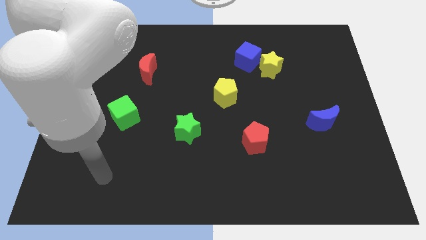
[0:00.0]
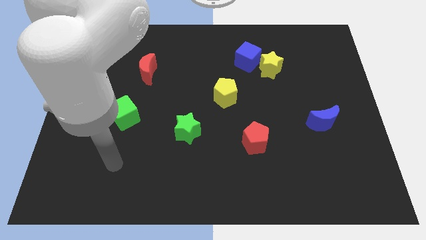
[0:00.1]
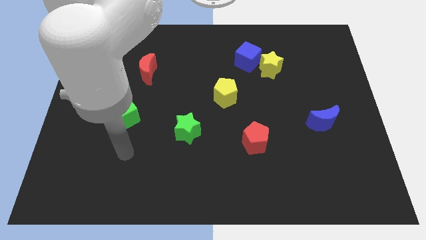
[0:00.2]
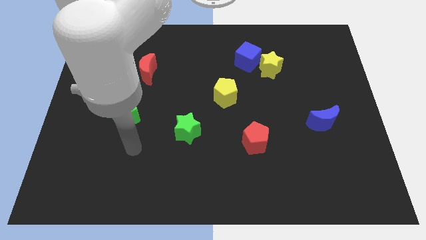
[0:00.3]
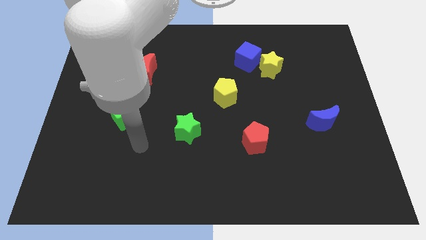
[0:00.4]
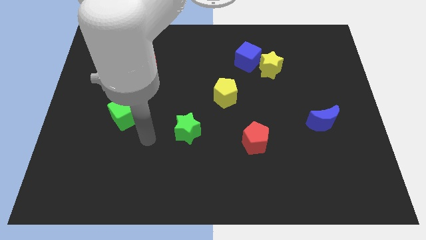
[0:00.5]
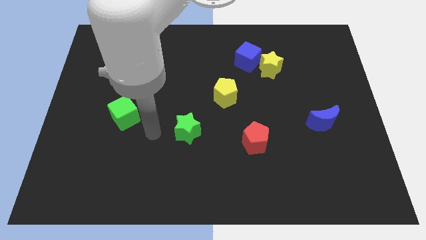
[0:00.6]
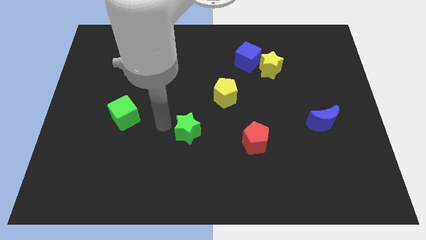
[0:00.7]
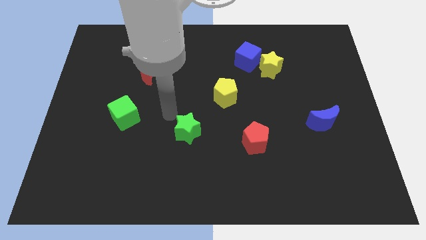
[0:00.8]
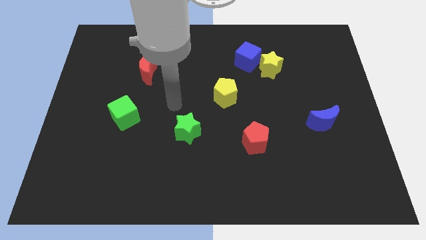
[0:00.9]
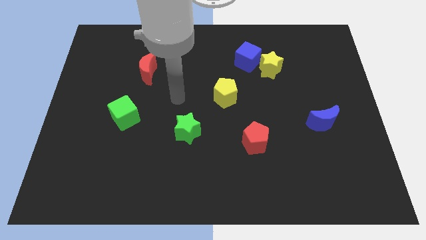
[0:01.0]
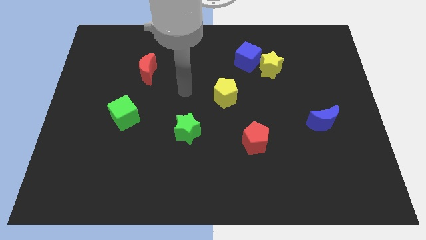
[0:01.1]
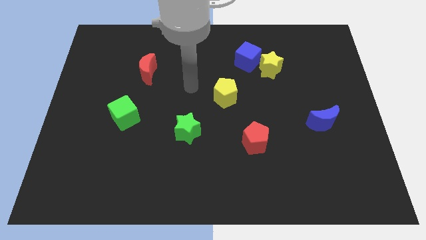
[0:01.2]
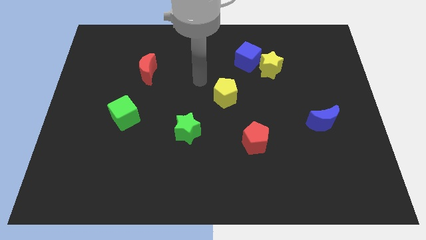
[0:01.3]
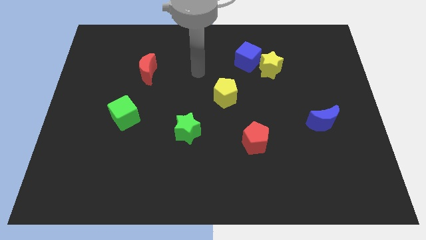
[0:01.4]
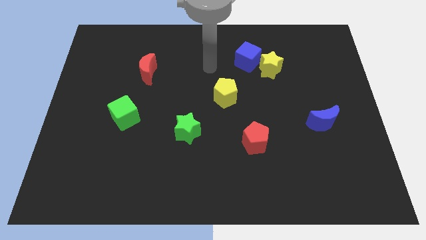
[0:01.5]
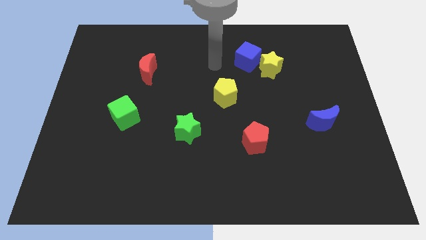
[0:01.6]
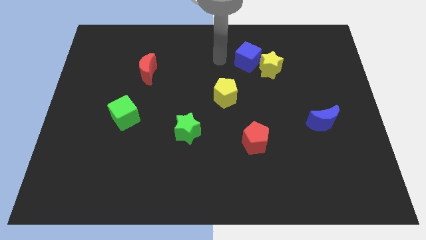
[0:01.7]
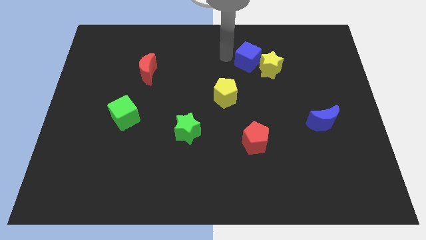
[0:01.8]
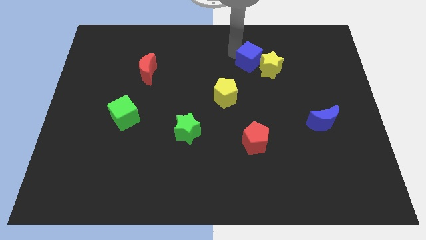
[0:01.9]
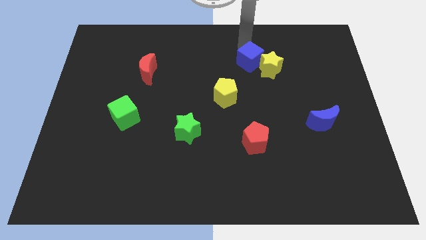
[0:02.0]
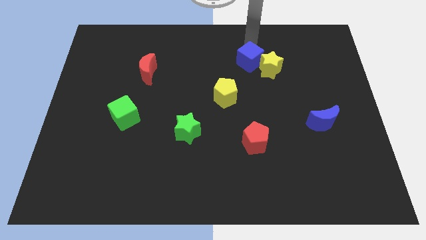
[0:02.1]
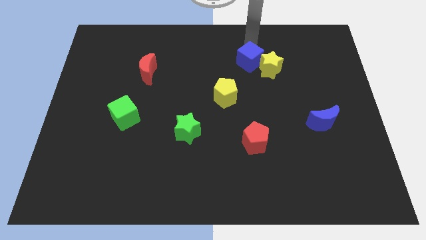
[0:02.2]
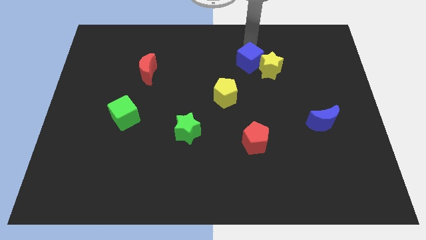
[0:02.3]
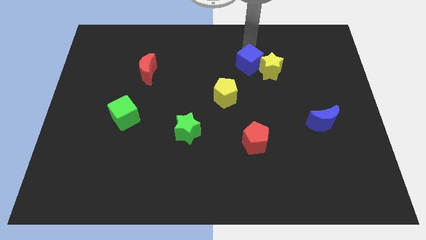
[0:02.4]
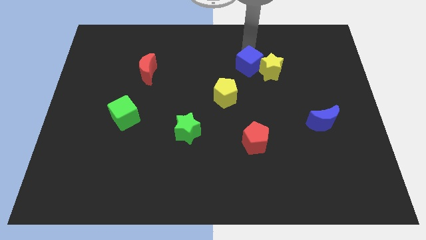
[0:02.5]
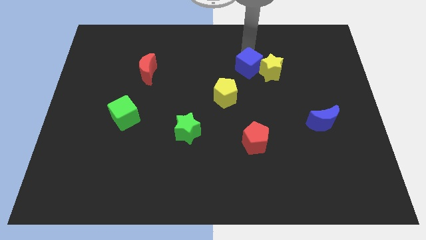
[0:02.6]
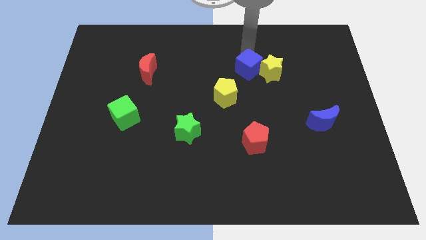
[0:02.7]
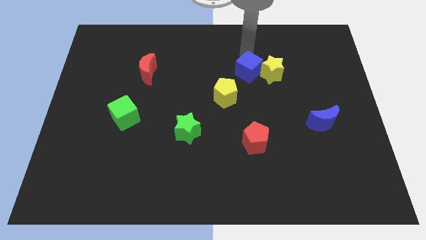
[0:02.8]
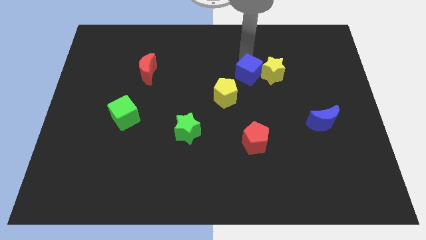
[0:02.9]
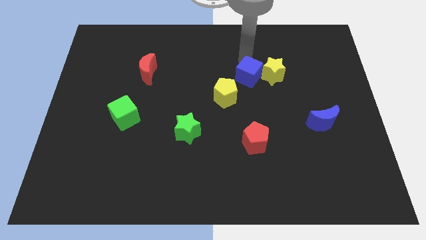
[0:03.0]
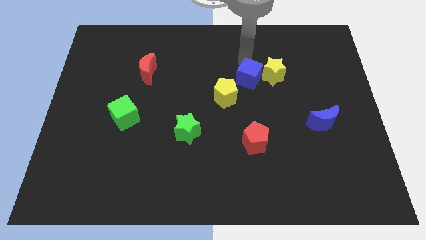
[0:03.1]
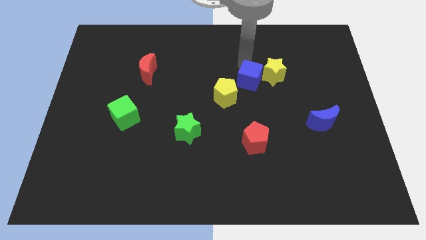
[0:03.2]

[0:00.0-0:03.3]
slightly slide the blue cube downwards

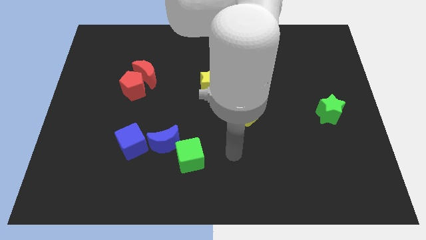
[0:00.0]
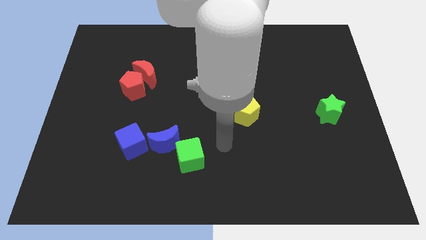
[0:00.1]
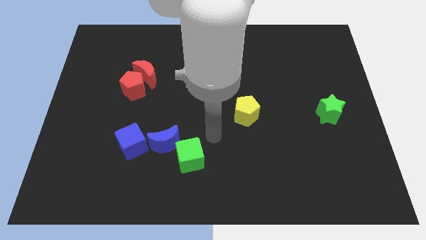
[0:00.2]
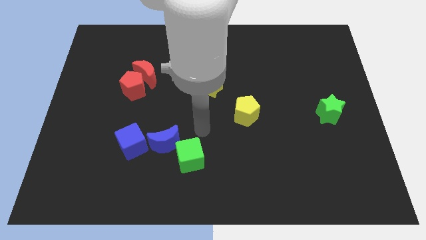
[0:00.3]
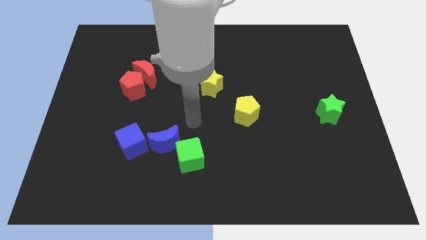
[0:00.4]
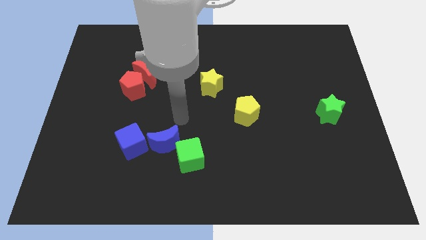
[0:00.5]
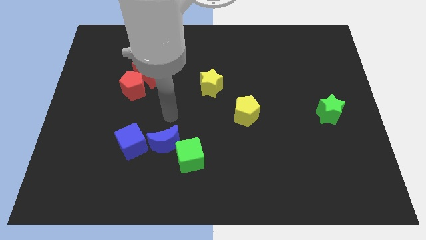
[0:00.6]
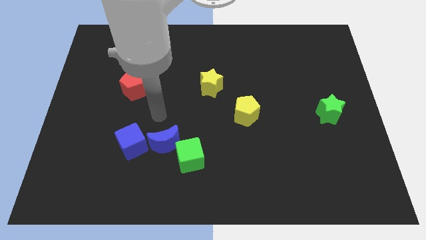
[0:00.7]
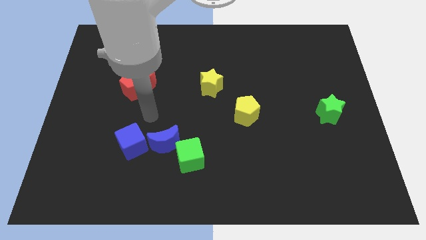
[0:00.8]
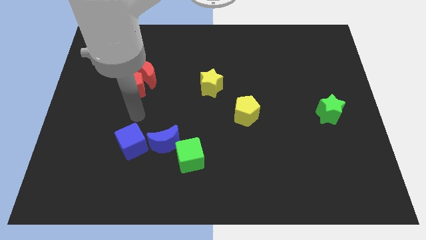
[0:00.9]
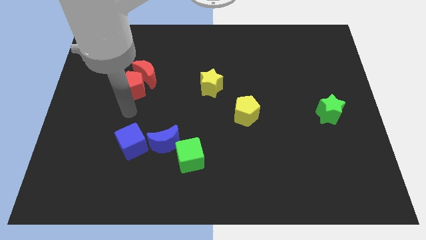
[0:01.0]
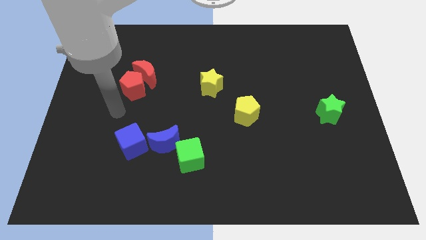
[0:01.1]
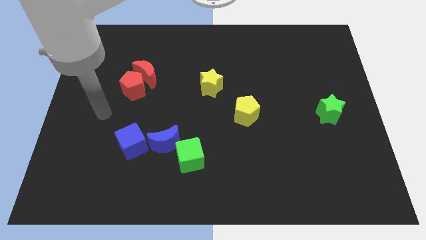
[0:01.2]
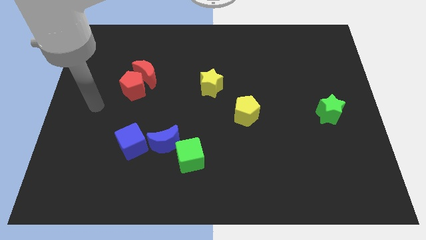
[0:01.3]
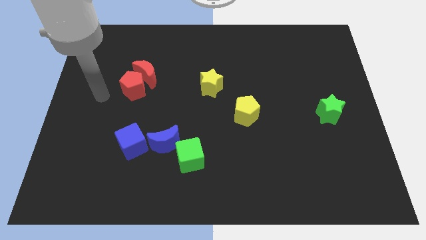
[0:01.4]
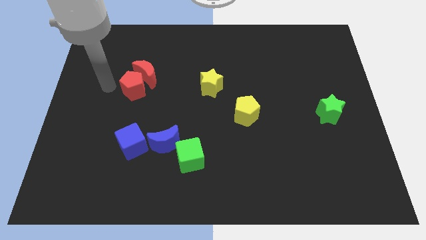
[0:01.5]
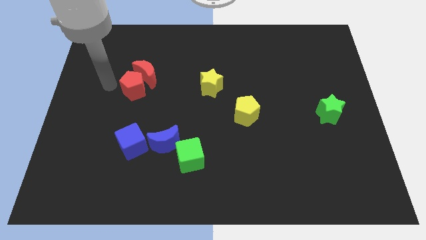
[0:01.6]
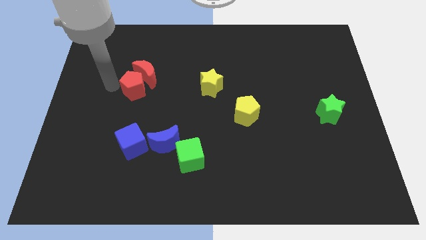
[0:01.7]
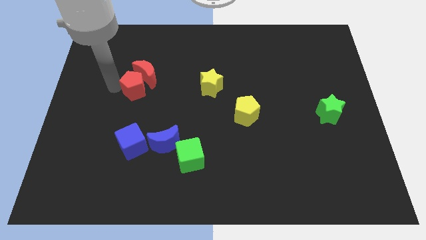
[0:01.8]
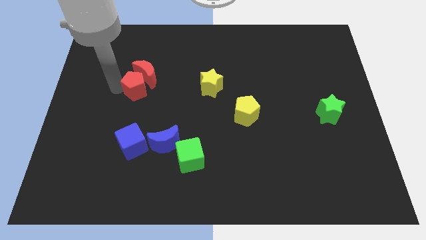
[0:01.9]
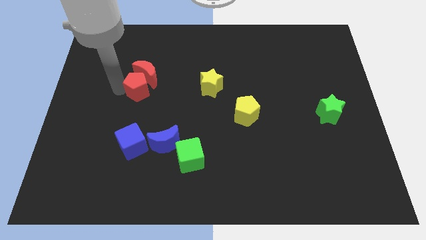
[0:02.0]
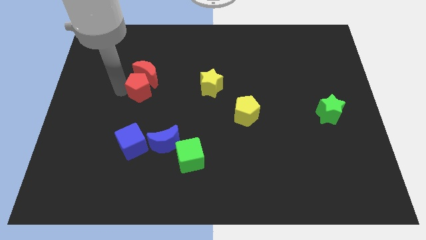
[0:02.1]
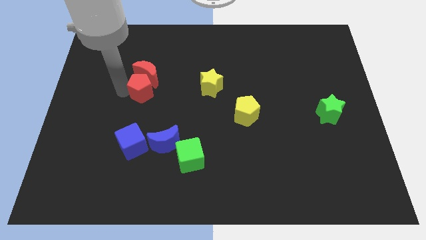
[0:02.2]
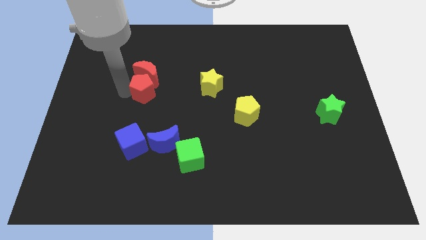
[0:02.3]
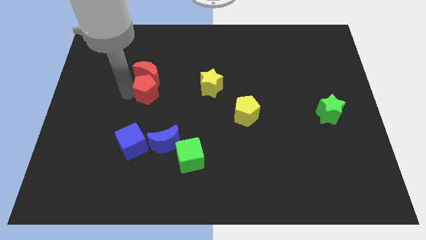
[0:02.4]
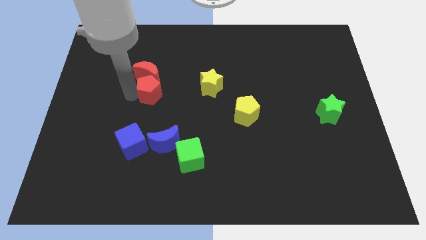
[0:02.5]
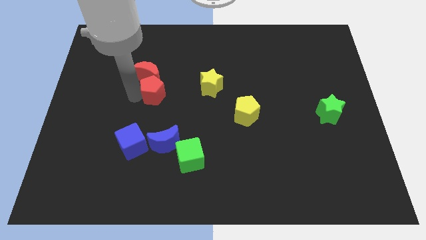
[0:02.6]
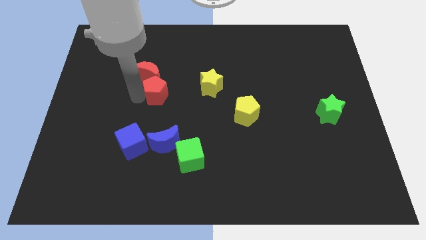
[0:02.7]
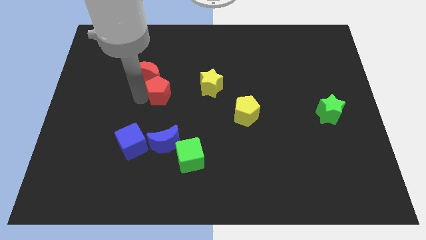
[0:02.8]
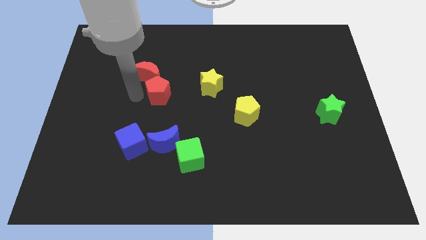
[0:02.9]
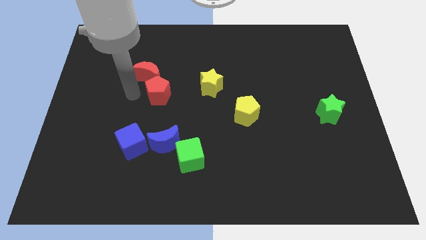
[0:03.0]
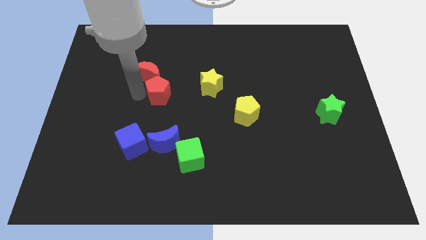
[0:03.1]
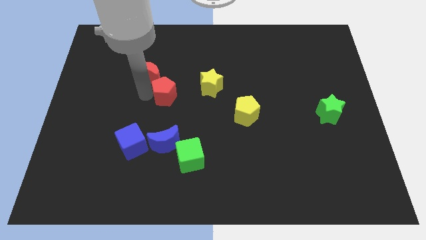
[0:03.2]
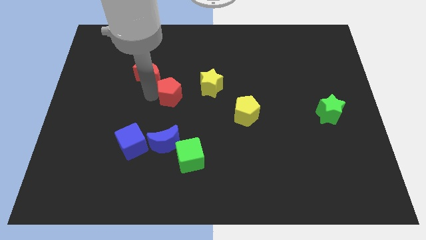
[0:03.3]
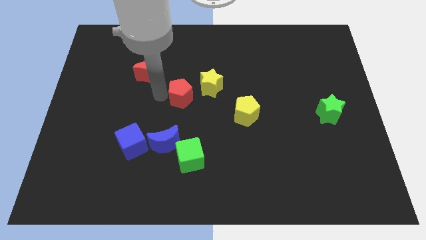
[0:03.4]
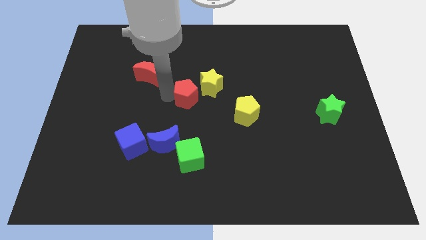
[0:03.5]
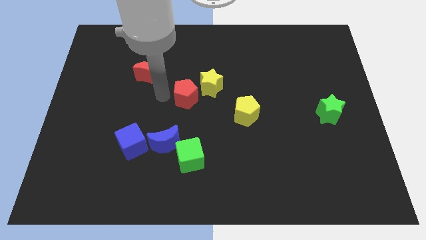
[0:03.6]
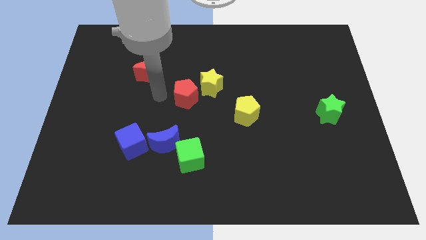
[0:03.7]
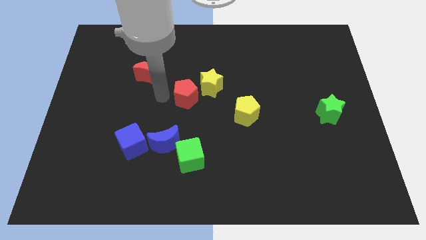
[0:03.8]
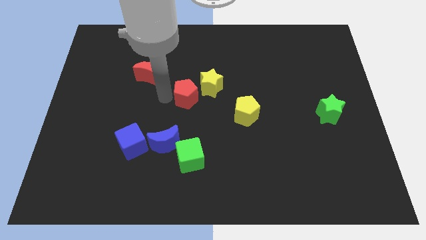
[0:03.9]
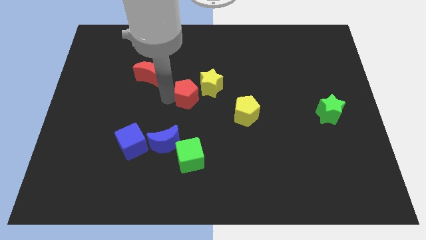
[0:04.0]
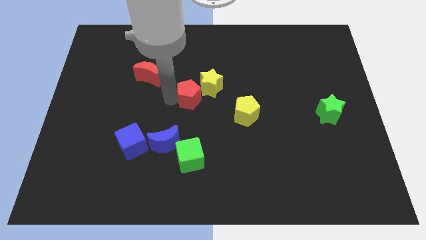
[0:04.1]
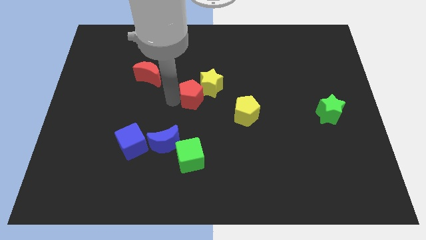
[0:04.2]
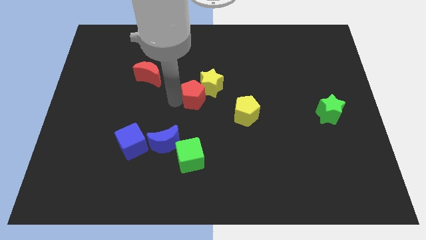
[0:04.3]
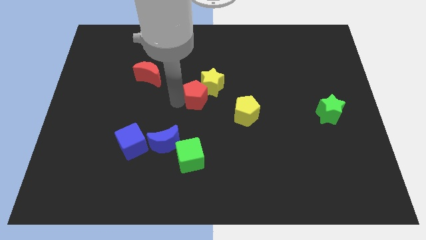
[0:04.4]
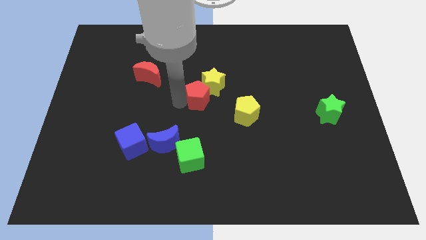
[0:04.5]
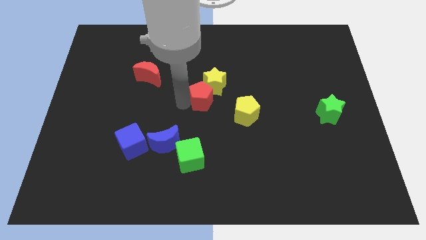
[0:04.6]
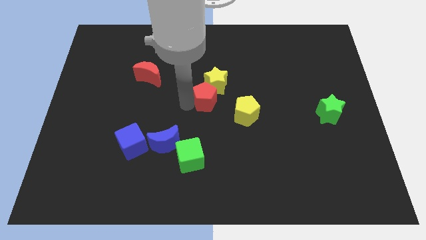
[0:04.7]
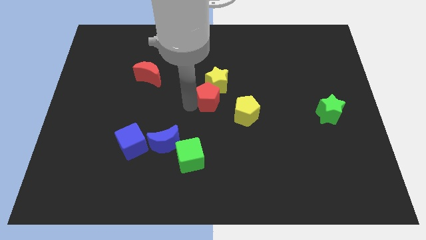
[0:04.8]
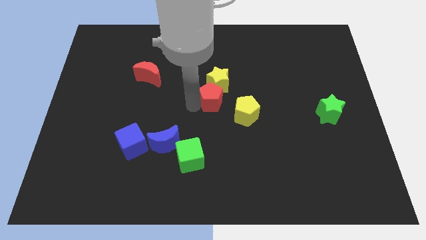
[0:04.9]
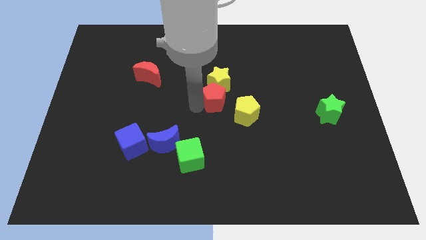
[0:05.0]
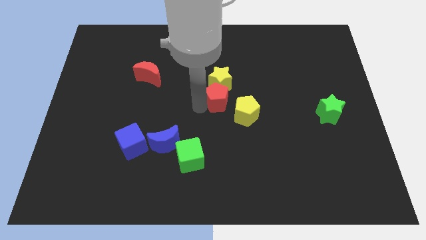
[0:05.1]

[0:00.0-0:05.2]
push the red pentagon right
